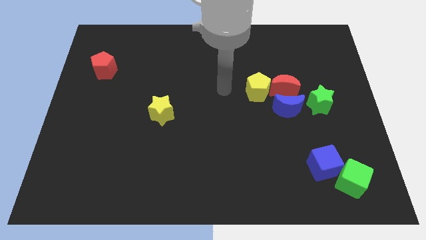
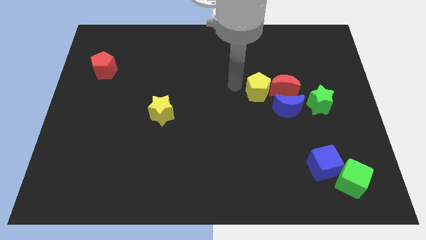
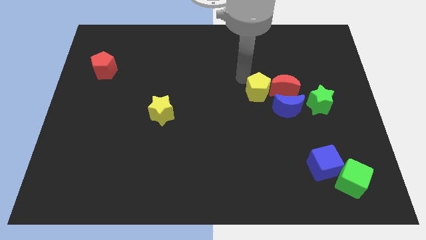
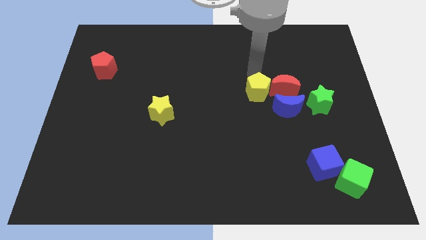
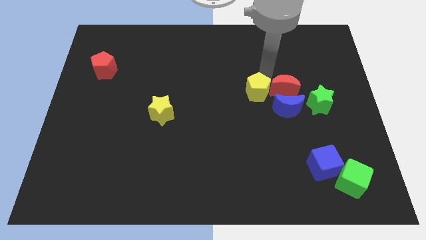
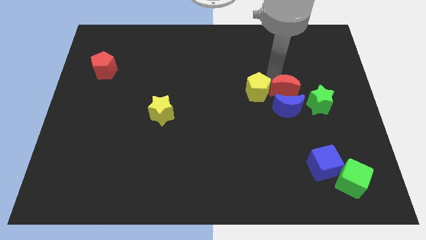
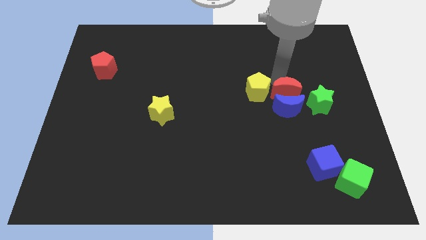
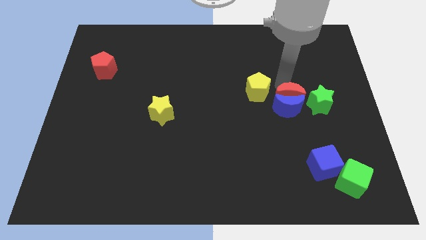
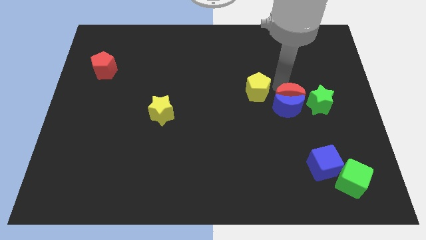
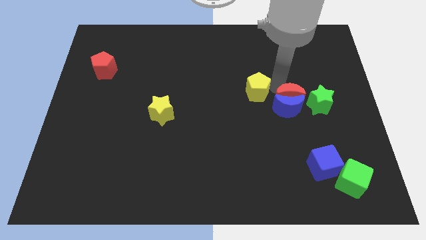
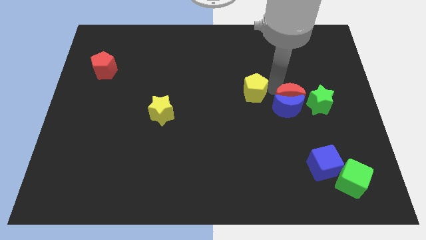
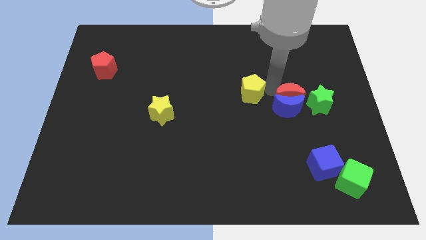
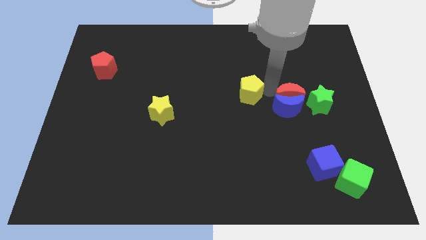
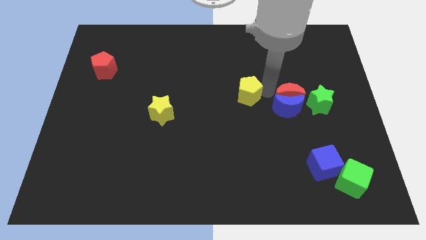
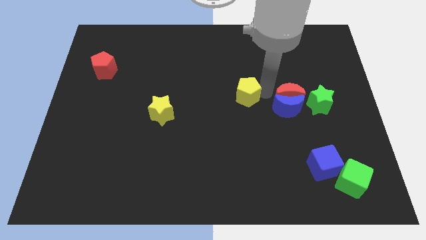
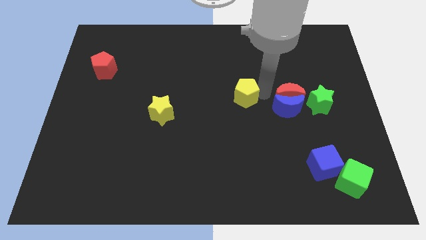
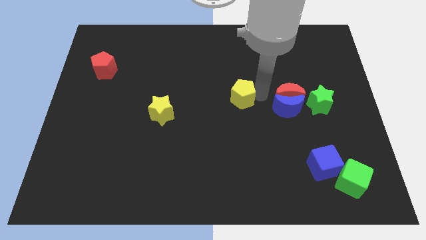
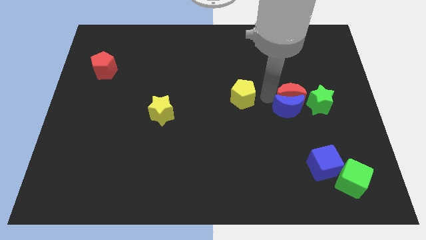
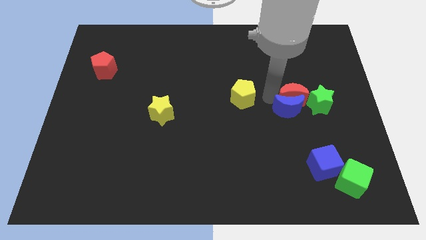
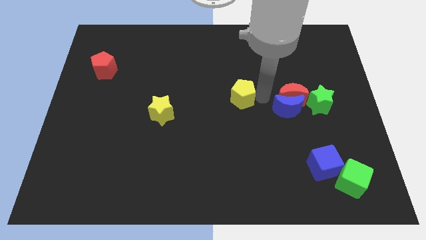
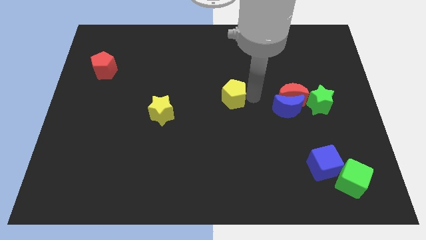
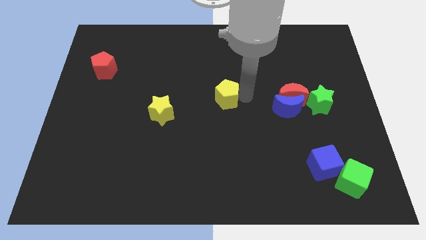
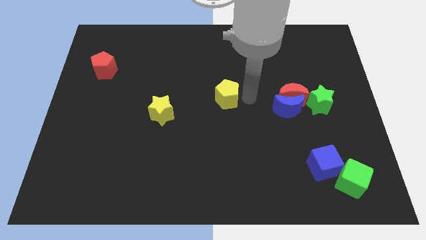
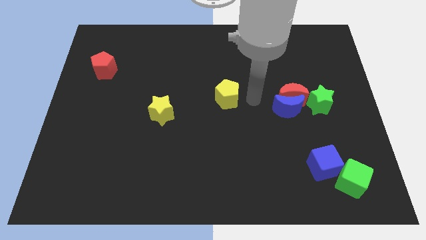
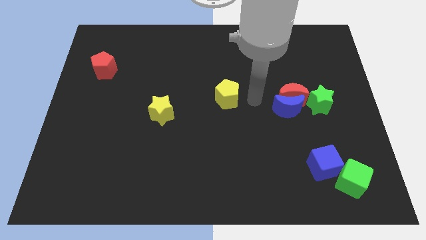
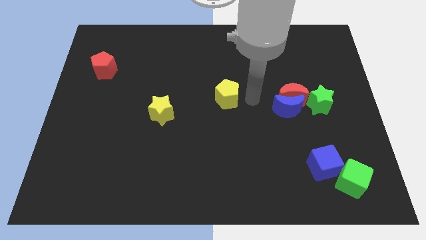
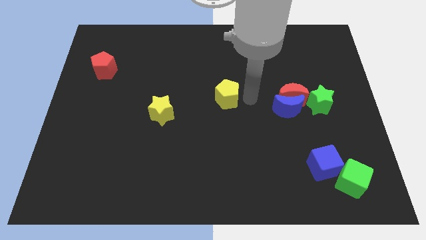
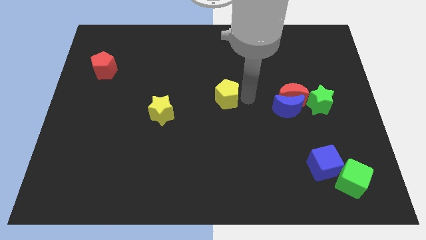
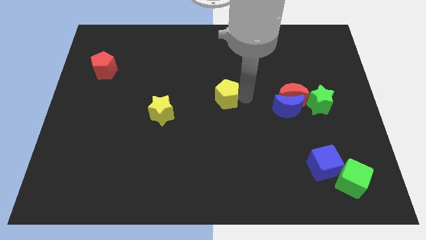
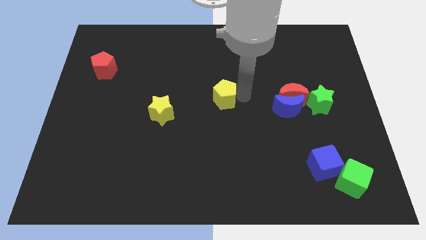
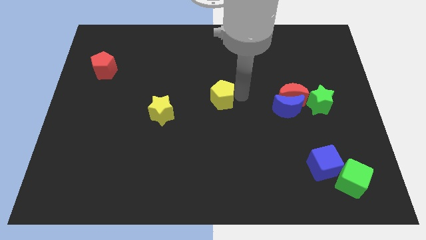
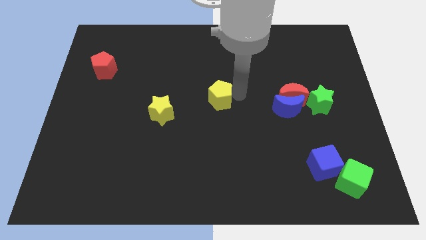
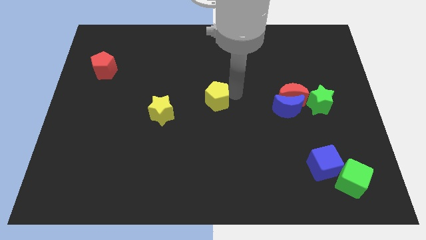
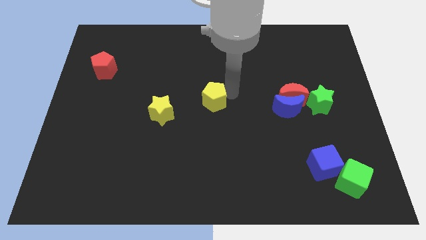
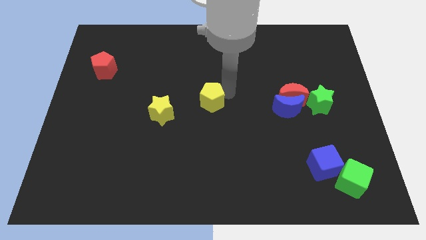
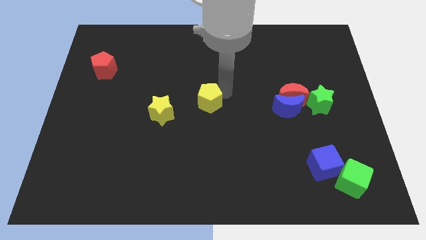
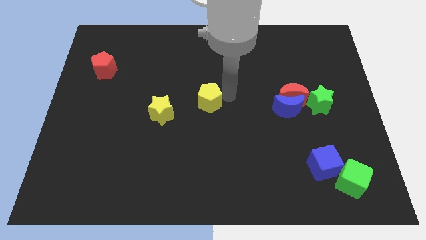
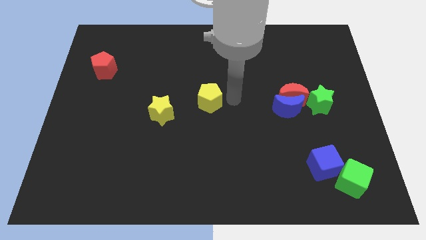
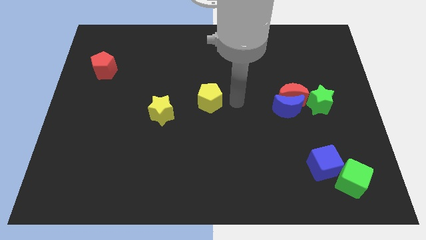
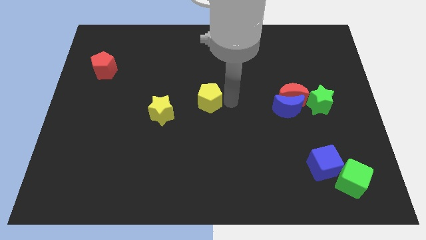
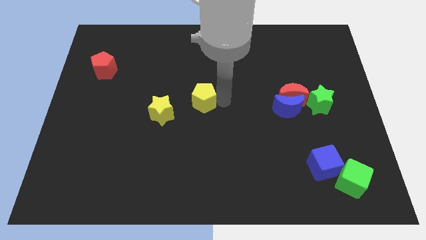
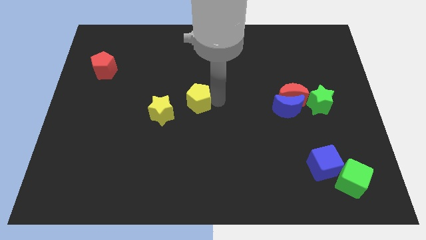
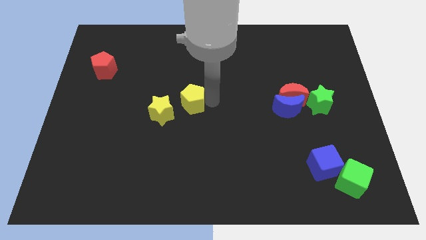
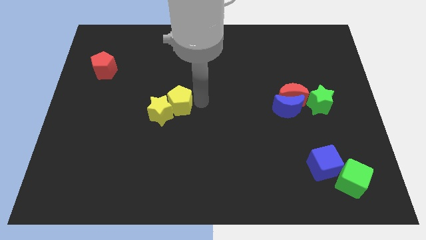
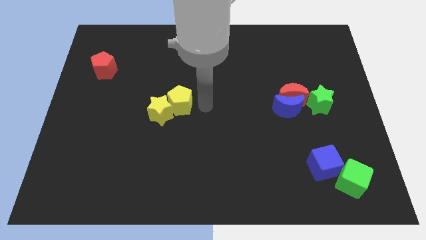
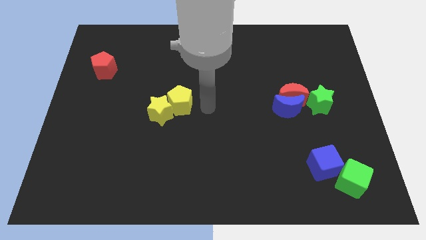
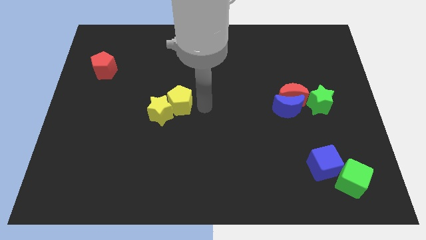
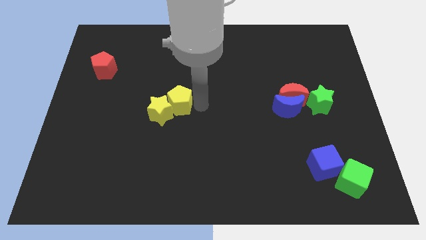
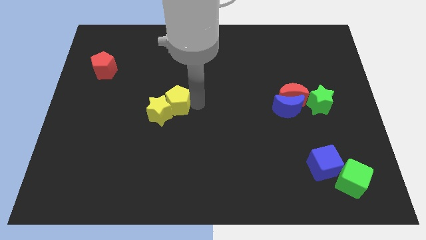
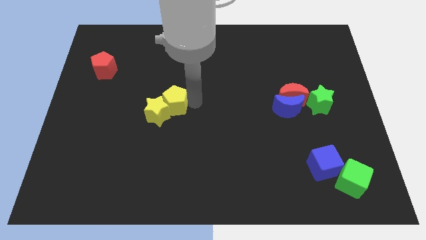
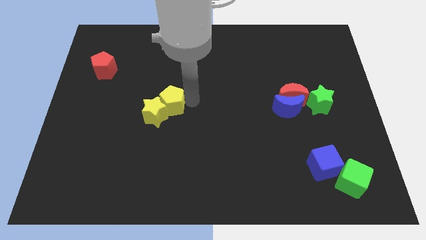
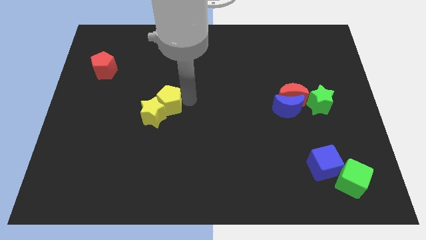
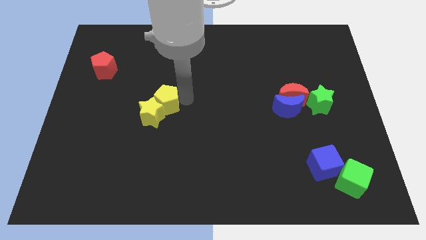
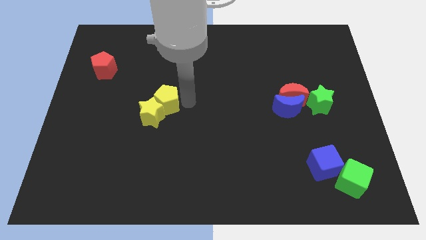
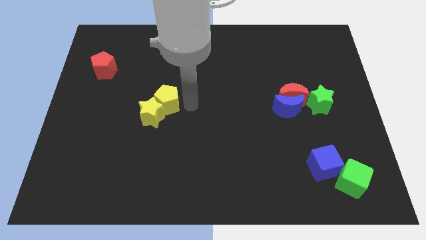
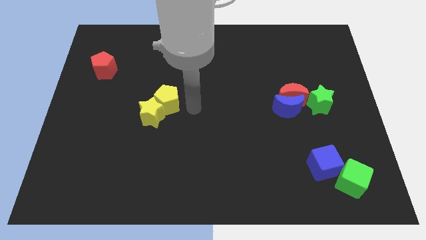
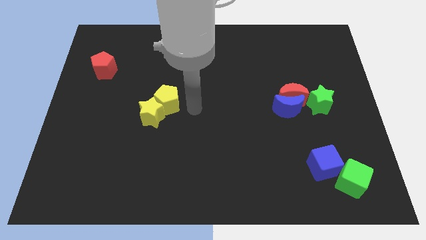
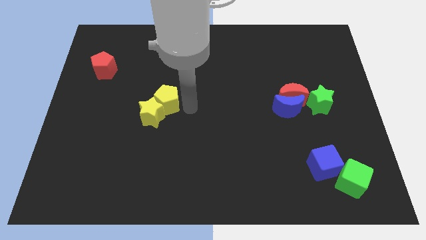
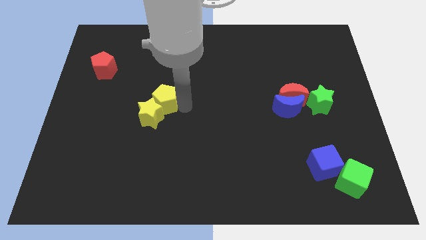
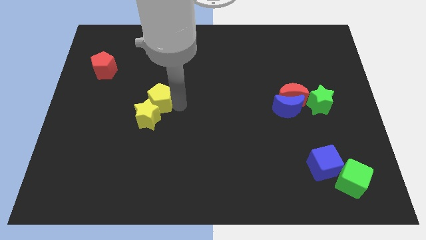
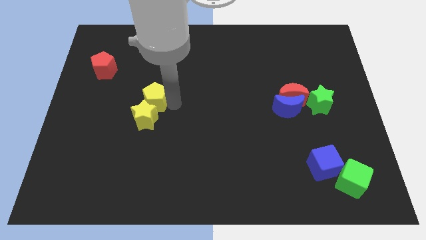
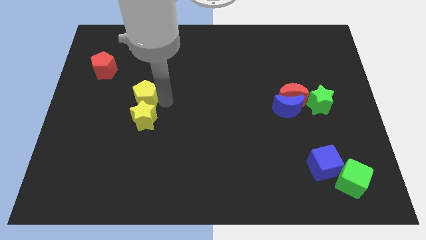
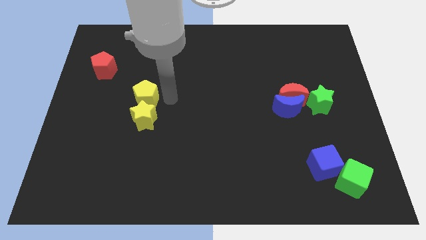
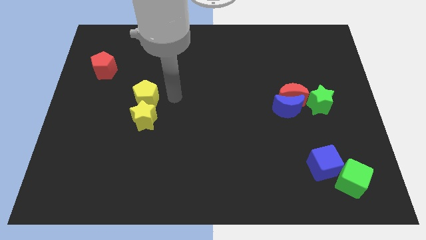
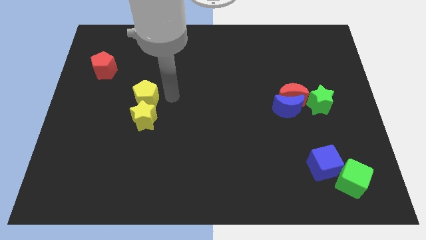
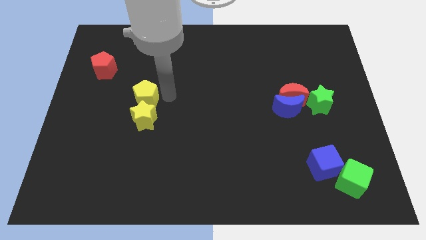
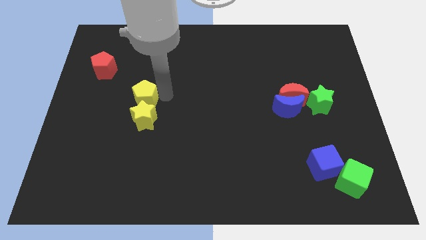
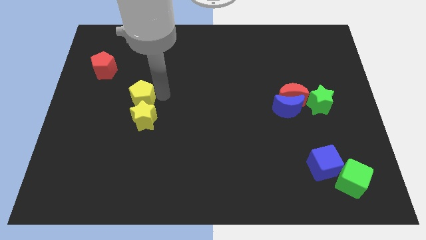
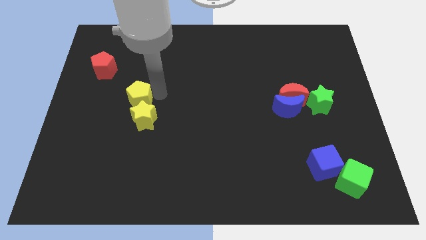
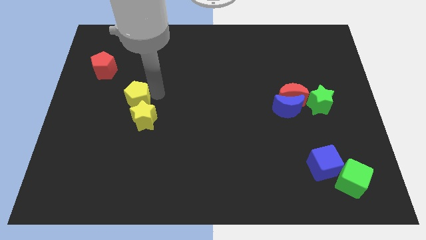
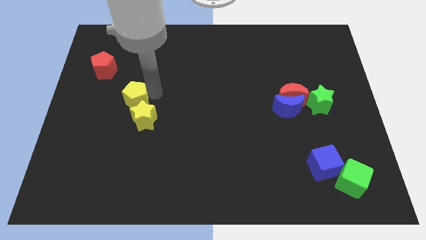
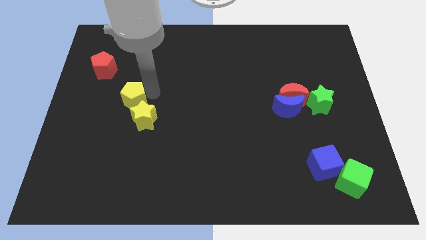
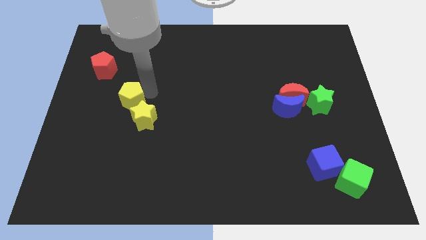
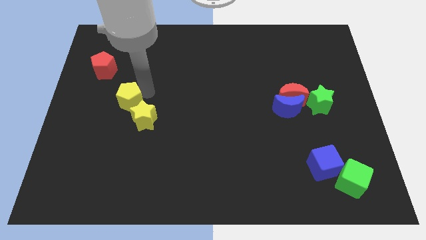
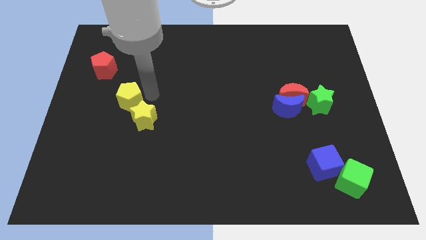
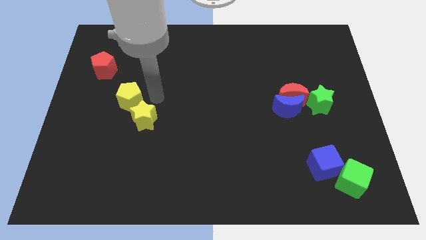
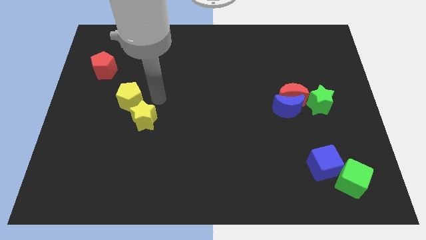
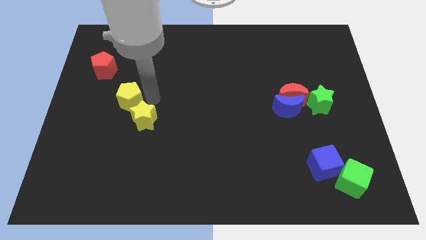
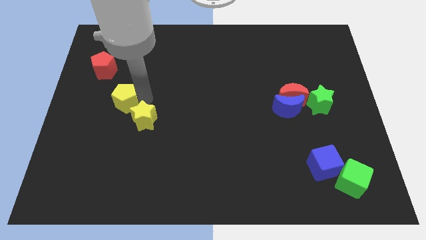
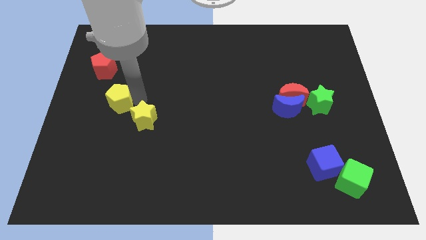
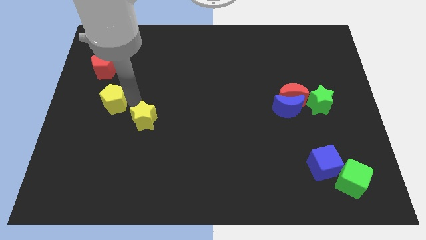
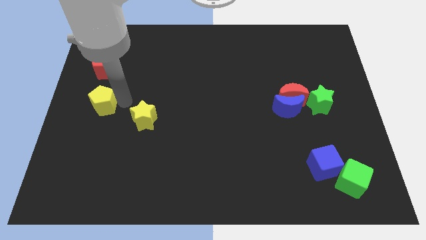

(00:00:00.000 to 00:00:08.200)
push the yellow pentagon to the center left
